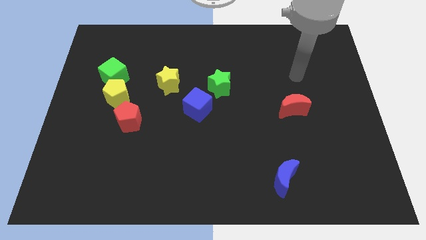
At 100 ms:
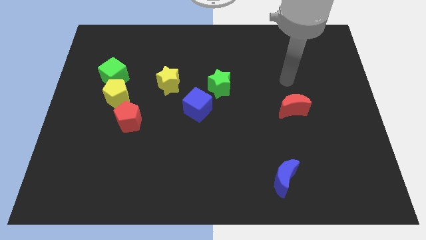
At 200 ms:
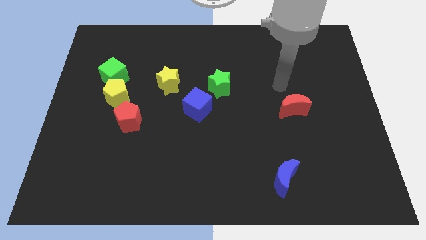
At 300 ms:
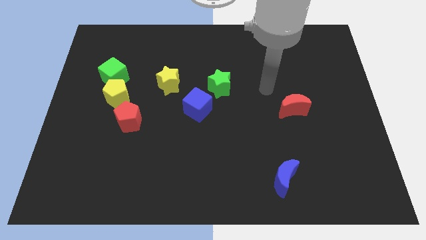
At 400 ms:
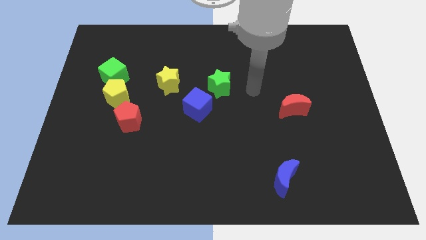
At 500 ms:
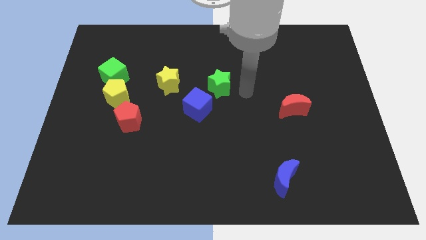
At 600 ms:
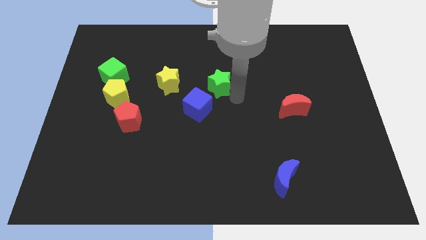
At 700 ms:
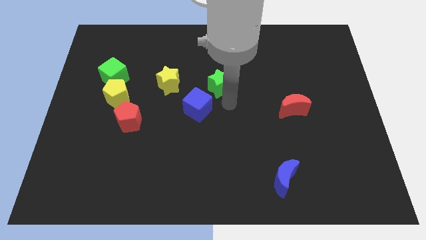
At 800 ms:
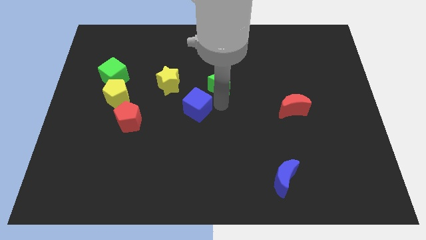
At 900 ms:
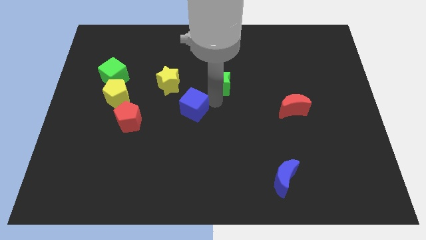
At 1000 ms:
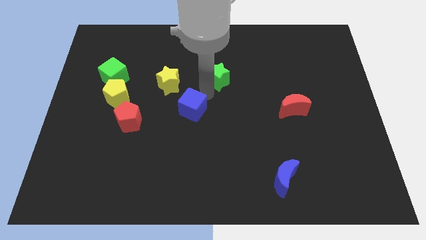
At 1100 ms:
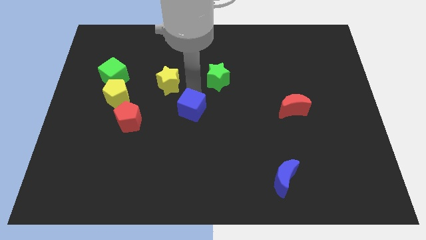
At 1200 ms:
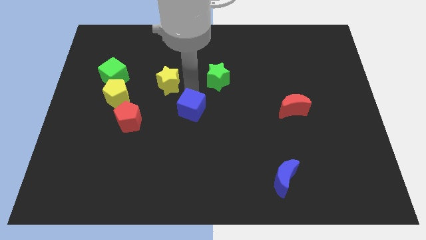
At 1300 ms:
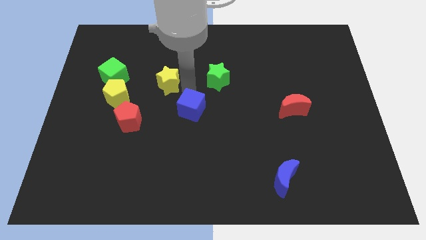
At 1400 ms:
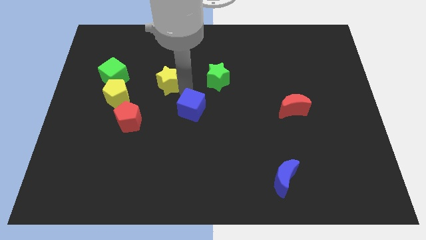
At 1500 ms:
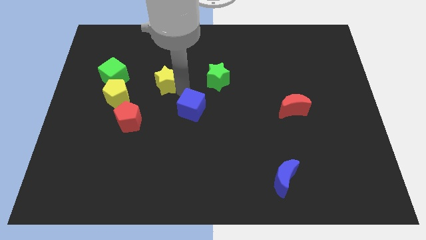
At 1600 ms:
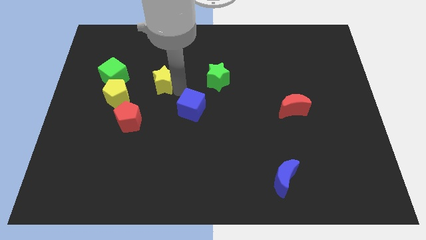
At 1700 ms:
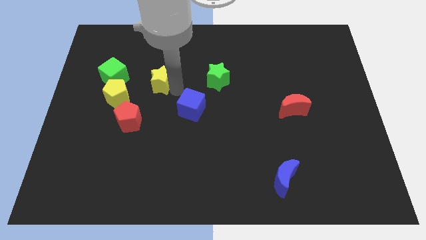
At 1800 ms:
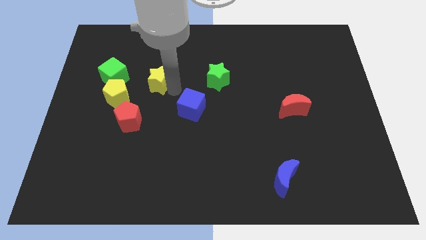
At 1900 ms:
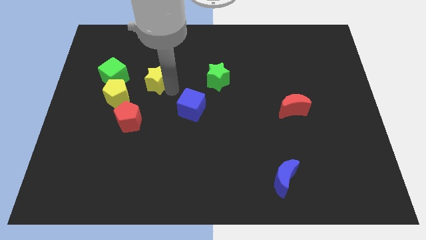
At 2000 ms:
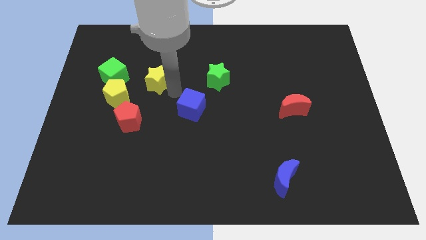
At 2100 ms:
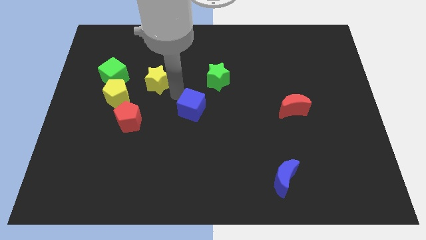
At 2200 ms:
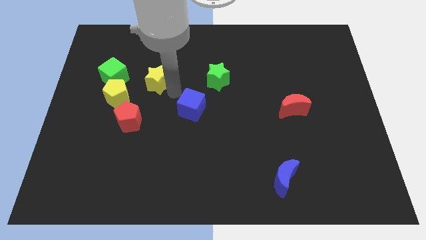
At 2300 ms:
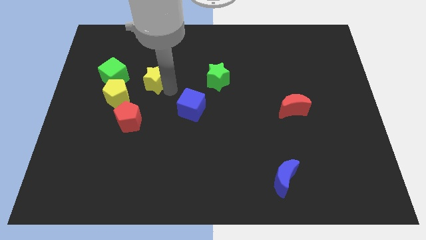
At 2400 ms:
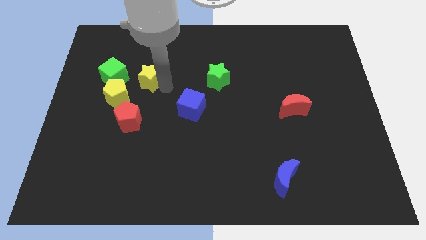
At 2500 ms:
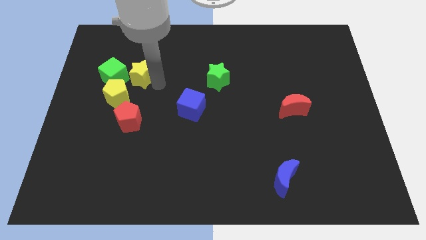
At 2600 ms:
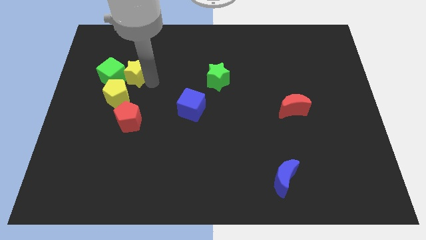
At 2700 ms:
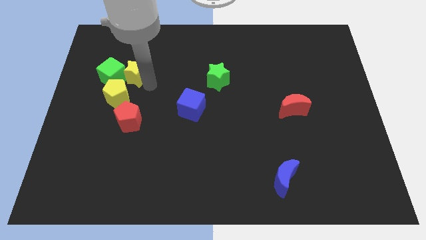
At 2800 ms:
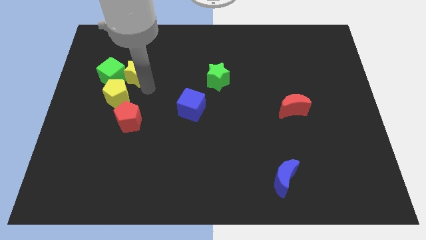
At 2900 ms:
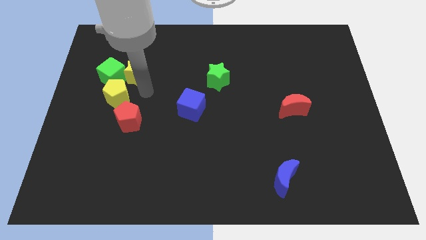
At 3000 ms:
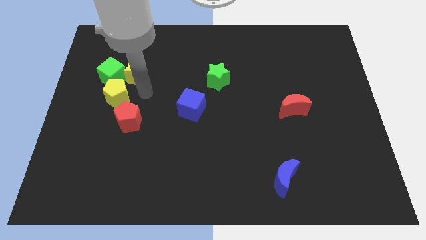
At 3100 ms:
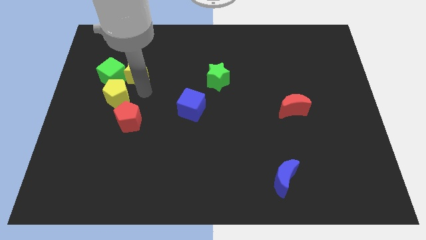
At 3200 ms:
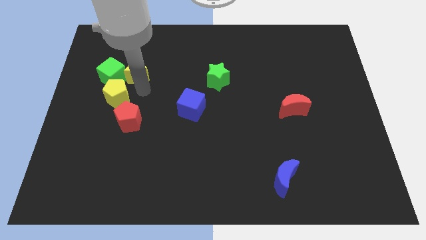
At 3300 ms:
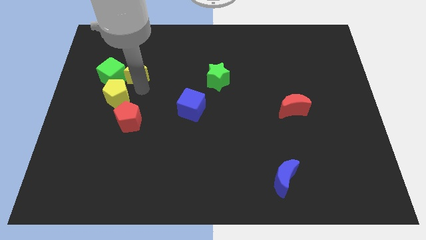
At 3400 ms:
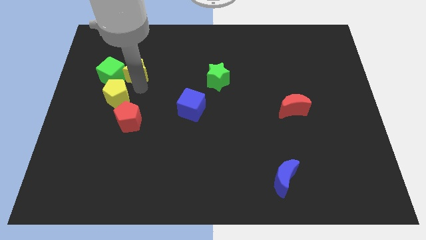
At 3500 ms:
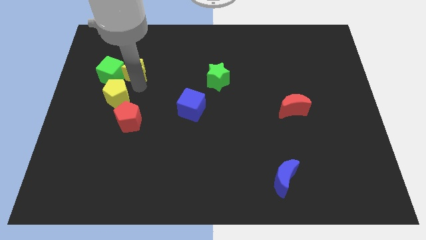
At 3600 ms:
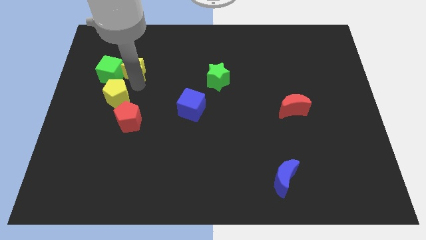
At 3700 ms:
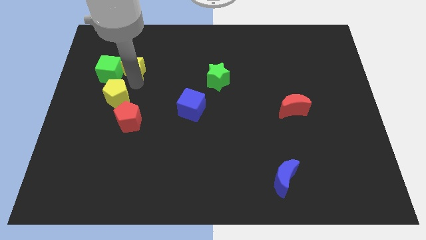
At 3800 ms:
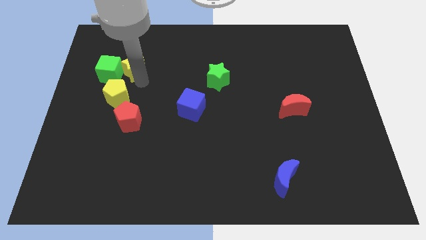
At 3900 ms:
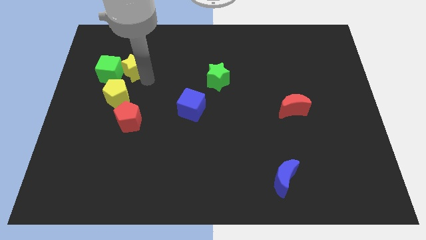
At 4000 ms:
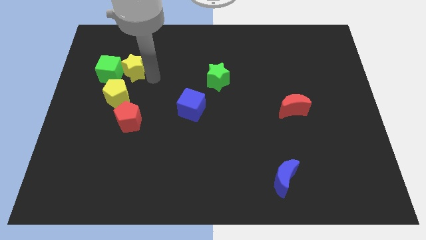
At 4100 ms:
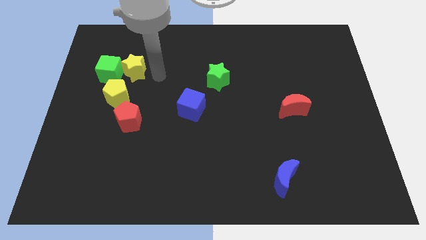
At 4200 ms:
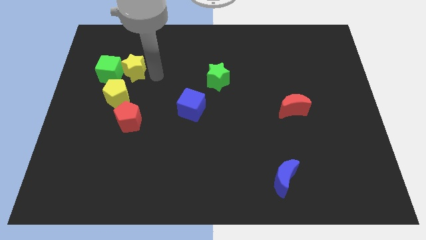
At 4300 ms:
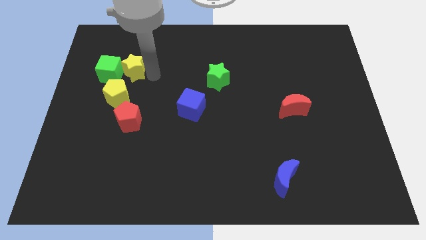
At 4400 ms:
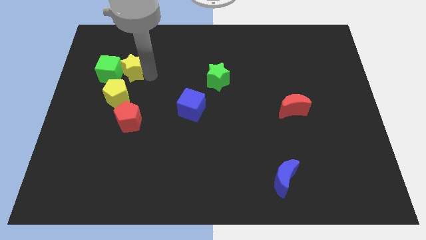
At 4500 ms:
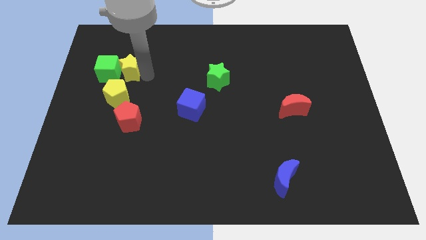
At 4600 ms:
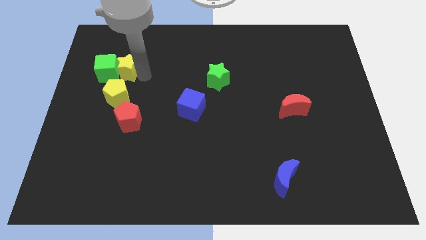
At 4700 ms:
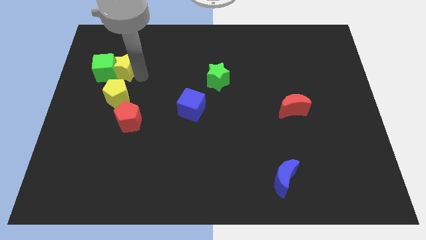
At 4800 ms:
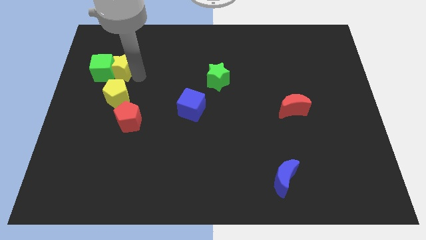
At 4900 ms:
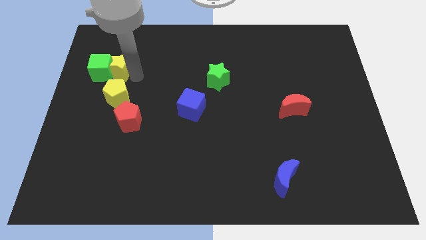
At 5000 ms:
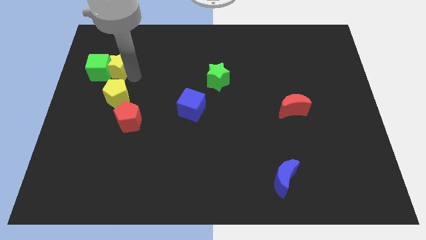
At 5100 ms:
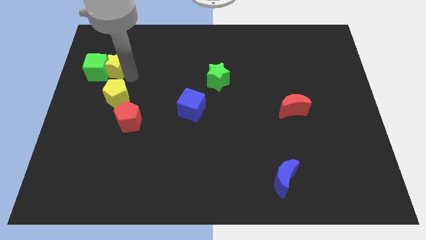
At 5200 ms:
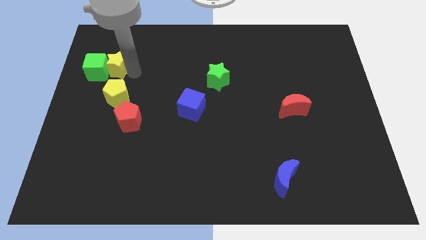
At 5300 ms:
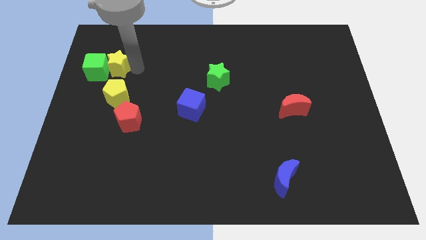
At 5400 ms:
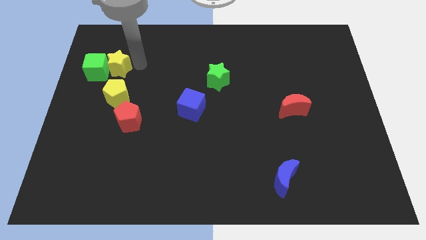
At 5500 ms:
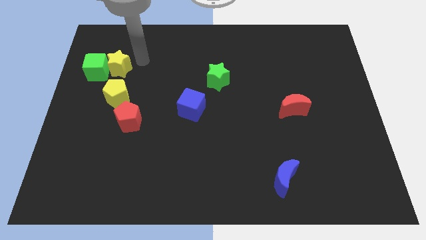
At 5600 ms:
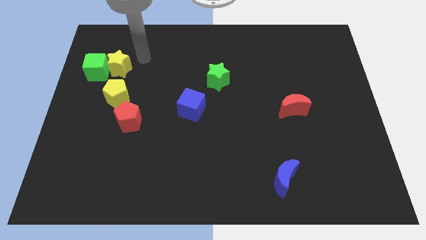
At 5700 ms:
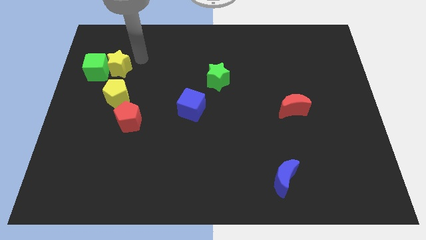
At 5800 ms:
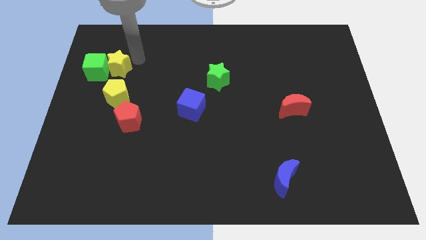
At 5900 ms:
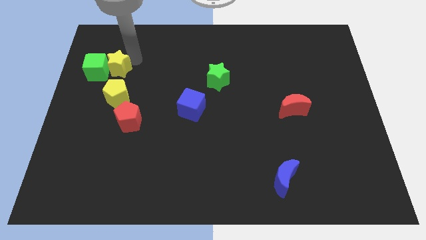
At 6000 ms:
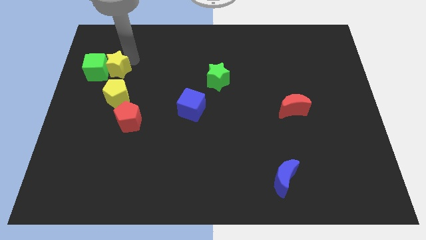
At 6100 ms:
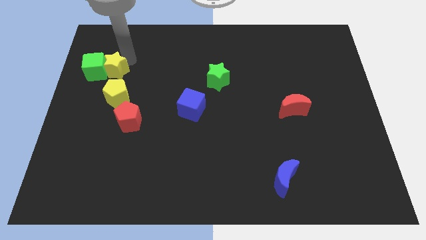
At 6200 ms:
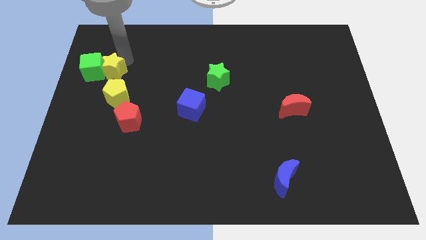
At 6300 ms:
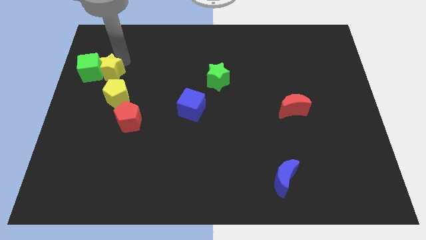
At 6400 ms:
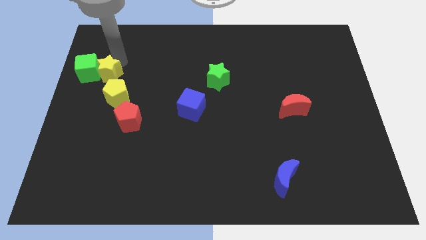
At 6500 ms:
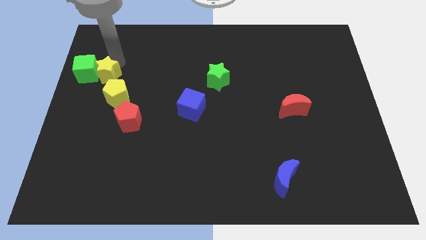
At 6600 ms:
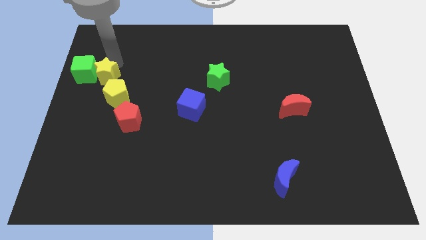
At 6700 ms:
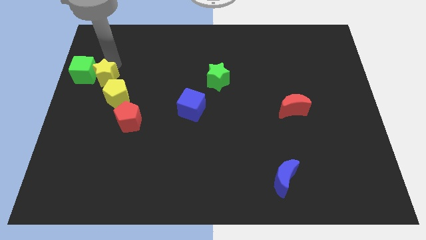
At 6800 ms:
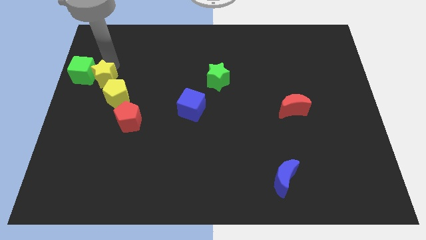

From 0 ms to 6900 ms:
push the yellow star to the left side of the board

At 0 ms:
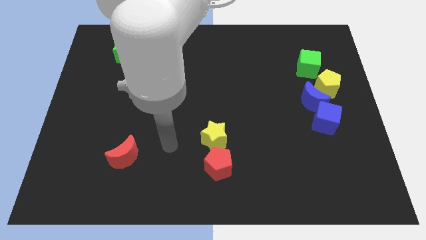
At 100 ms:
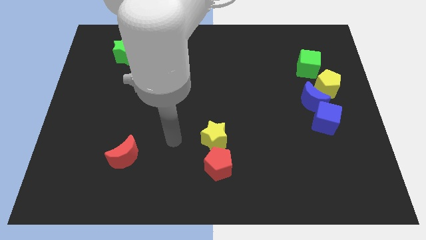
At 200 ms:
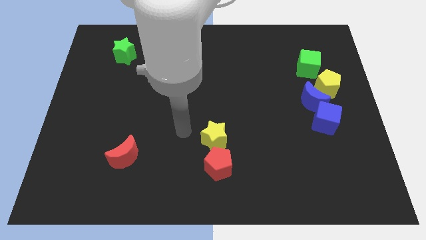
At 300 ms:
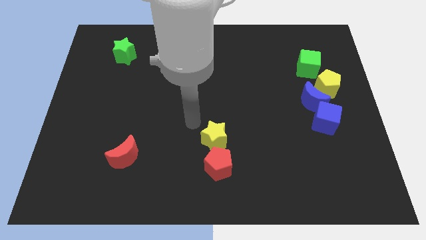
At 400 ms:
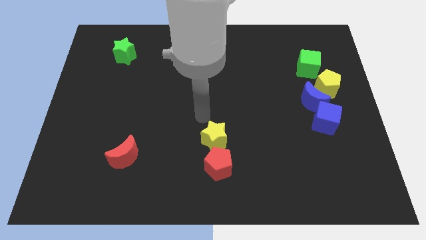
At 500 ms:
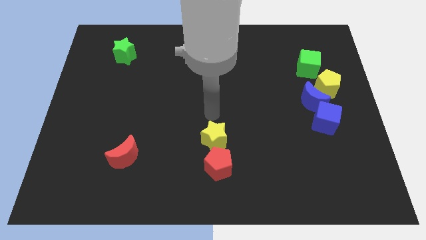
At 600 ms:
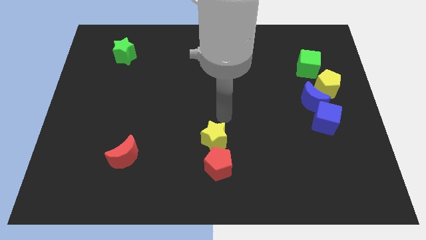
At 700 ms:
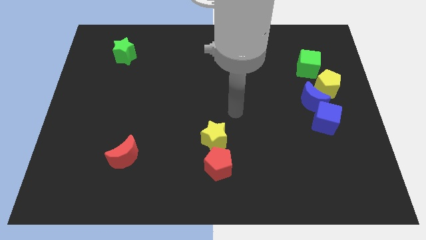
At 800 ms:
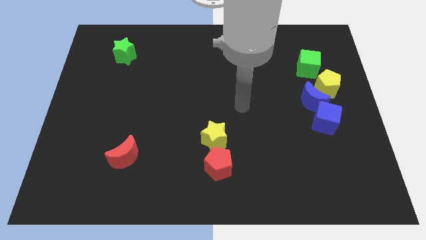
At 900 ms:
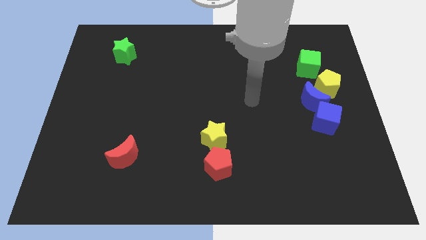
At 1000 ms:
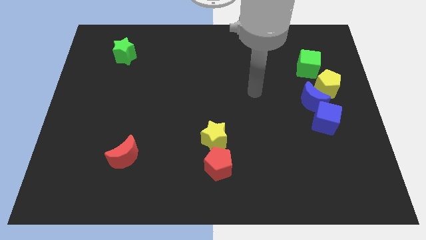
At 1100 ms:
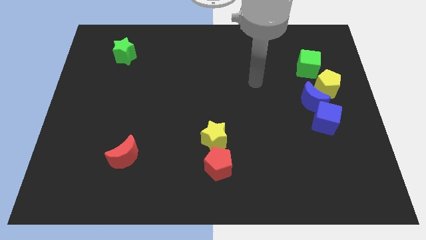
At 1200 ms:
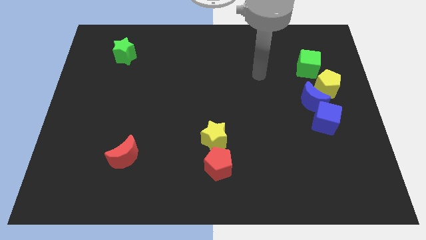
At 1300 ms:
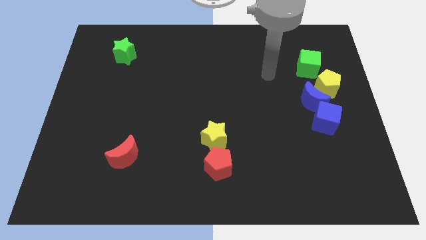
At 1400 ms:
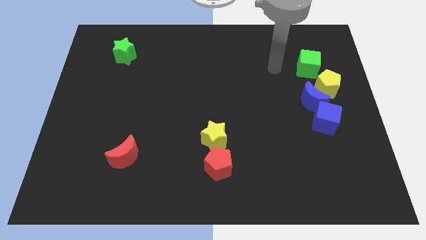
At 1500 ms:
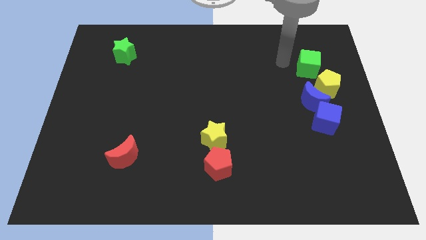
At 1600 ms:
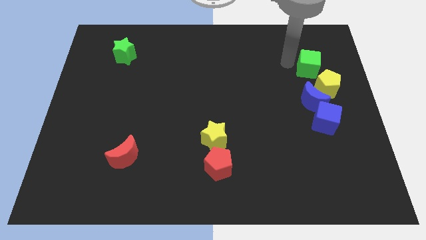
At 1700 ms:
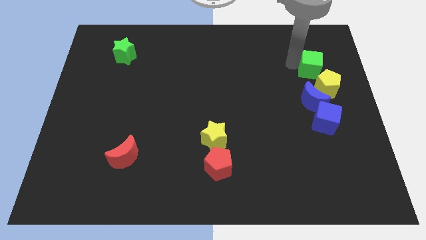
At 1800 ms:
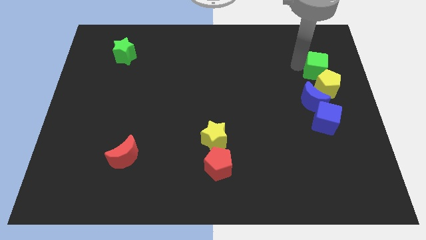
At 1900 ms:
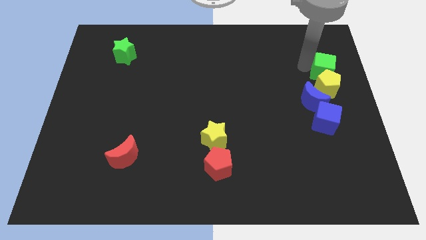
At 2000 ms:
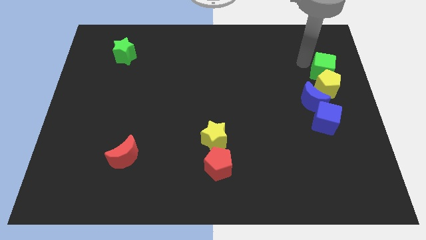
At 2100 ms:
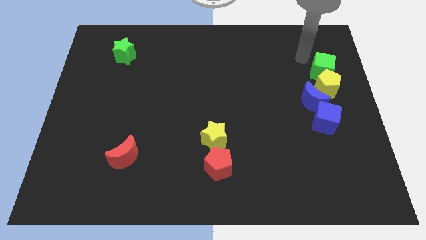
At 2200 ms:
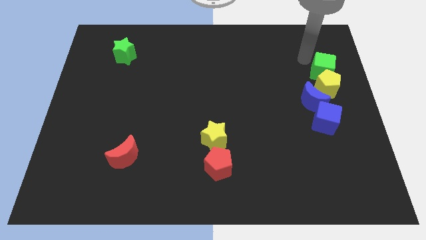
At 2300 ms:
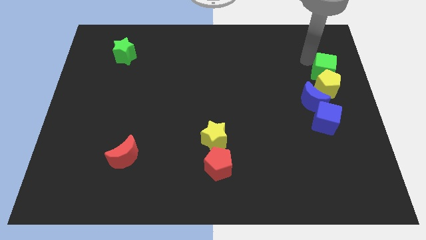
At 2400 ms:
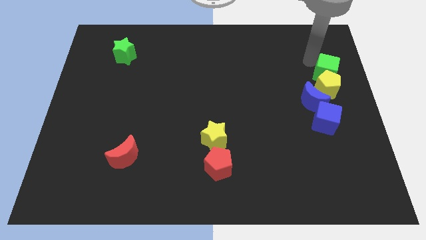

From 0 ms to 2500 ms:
slide the green cube to the right side
